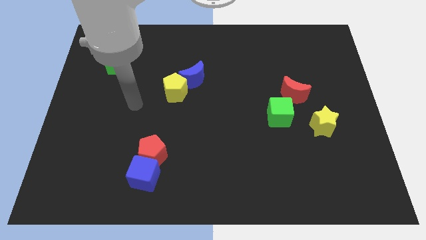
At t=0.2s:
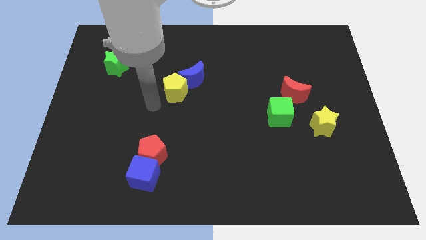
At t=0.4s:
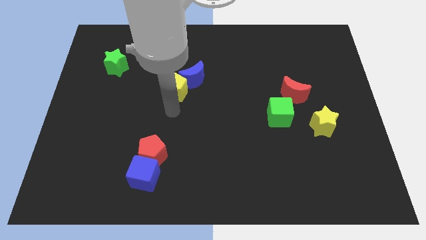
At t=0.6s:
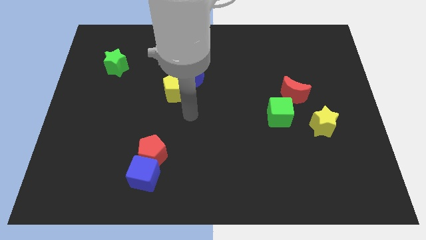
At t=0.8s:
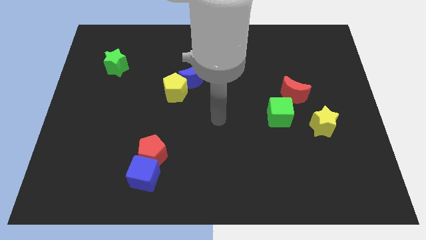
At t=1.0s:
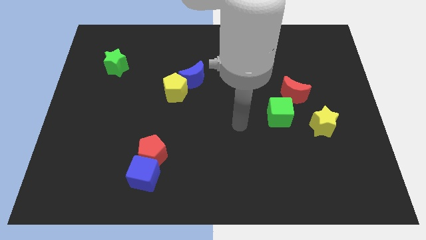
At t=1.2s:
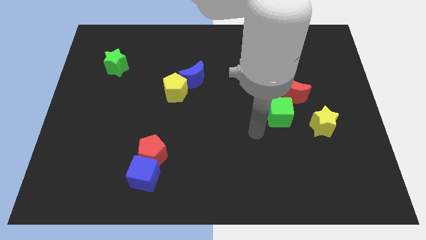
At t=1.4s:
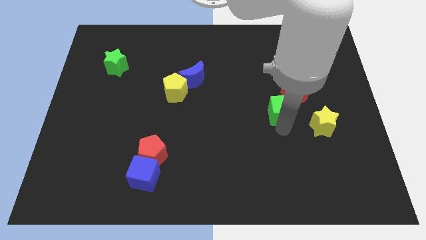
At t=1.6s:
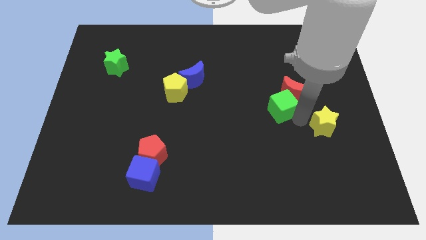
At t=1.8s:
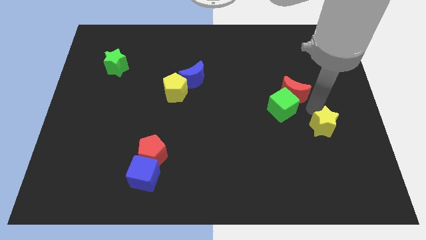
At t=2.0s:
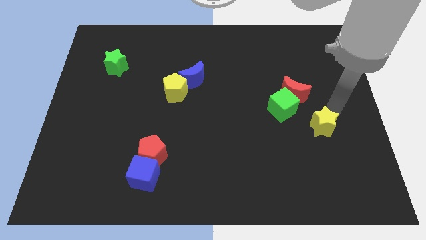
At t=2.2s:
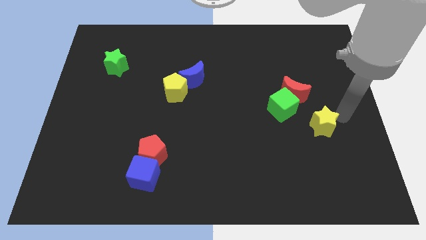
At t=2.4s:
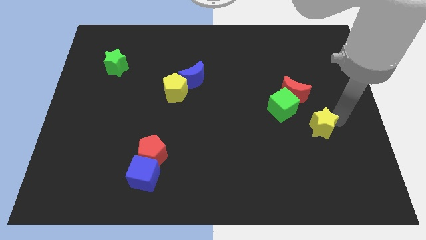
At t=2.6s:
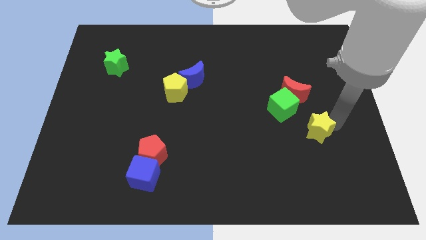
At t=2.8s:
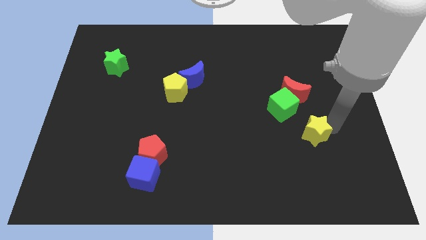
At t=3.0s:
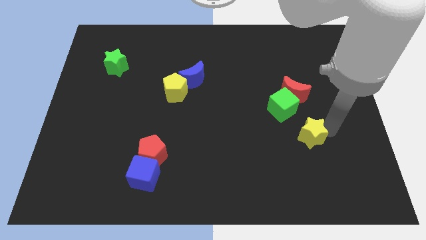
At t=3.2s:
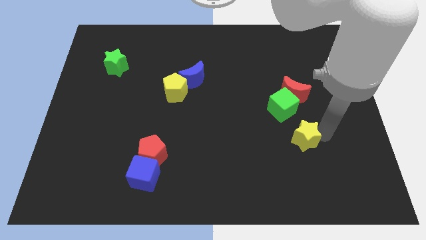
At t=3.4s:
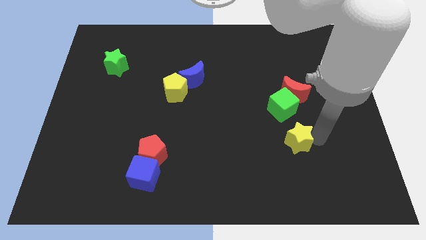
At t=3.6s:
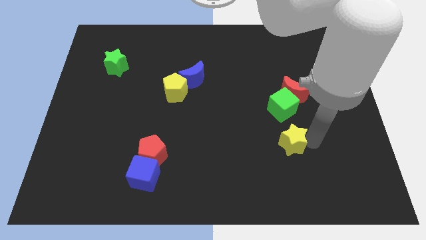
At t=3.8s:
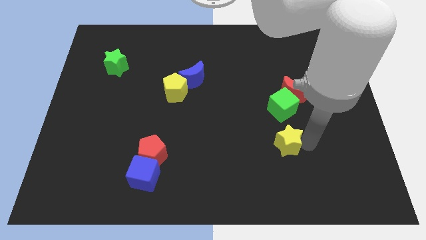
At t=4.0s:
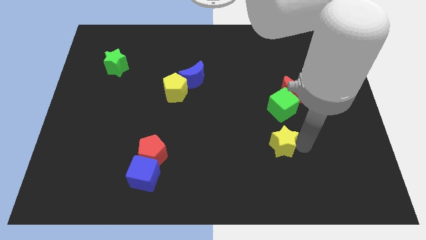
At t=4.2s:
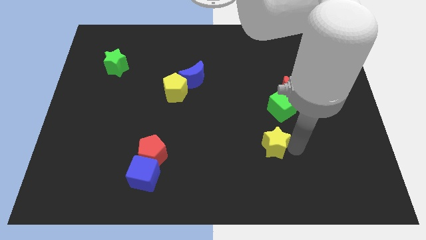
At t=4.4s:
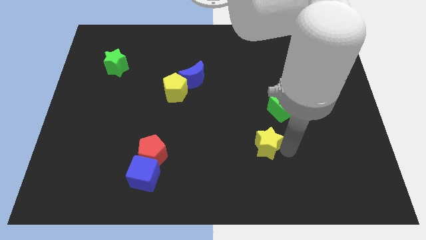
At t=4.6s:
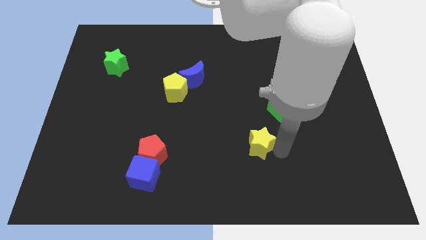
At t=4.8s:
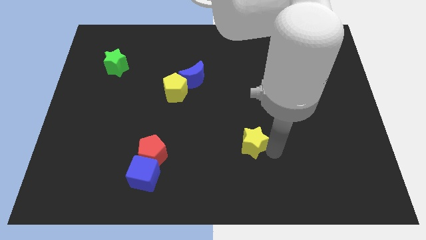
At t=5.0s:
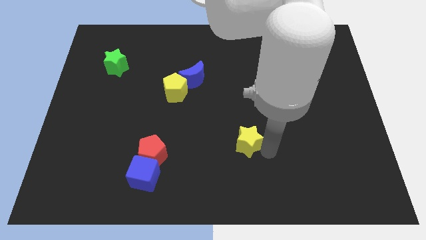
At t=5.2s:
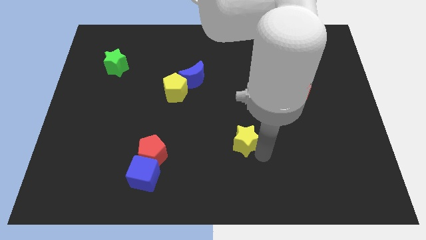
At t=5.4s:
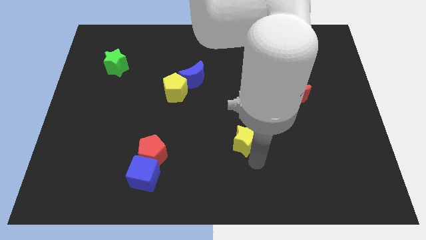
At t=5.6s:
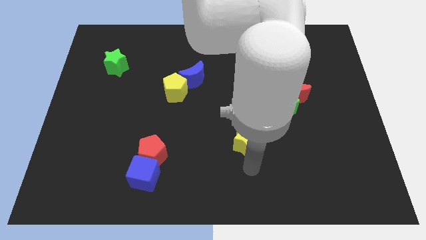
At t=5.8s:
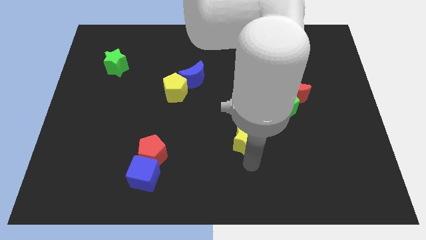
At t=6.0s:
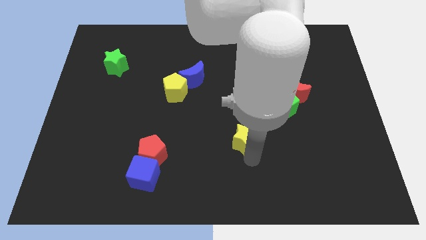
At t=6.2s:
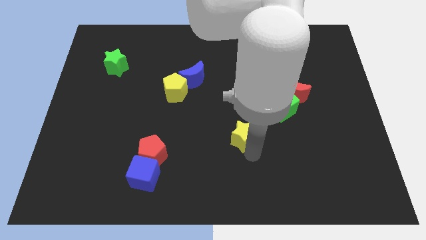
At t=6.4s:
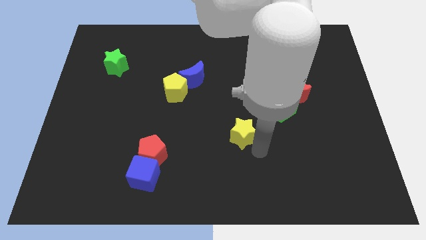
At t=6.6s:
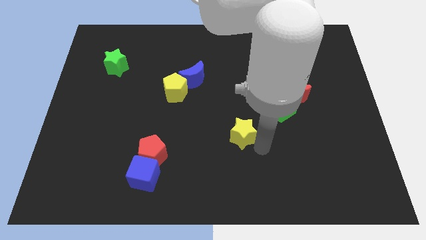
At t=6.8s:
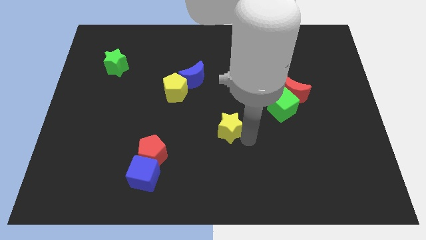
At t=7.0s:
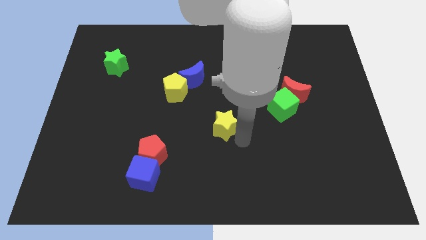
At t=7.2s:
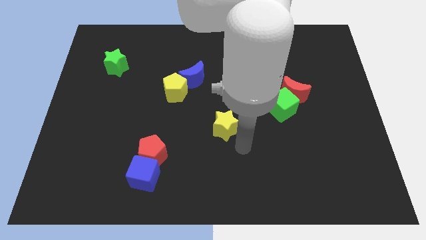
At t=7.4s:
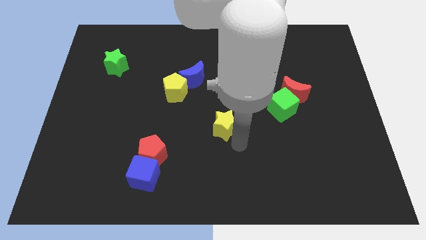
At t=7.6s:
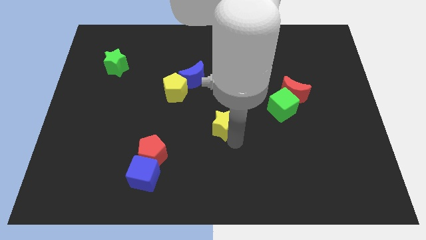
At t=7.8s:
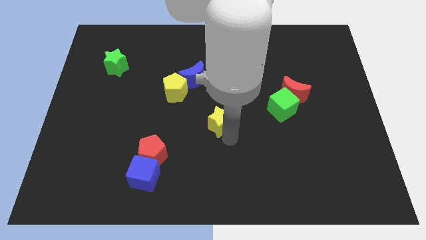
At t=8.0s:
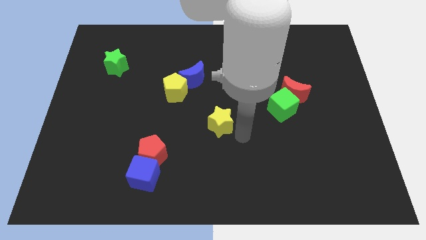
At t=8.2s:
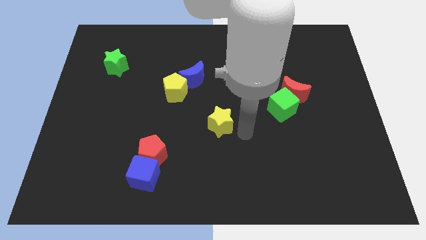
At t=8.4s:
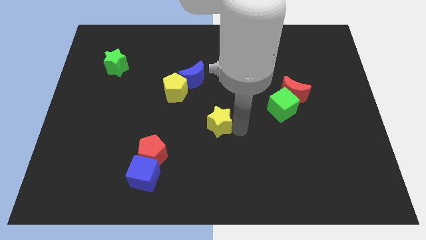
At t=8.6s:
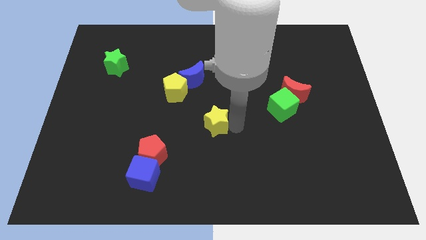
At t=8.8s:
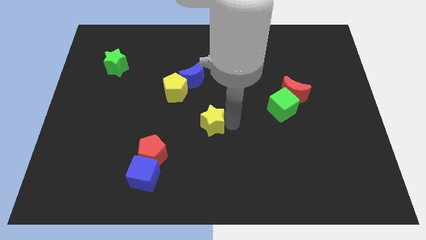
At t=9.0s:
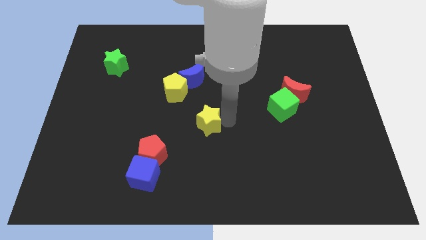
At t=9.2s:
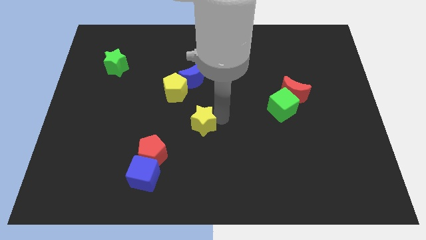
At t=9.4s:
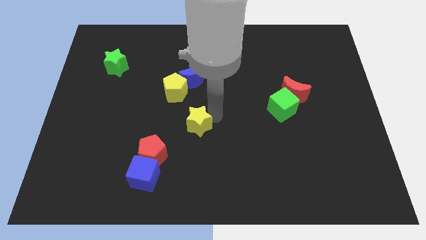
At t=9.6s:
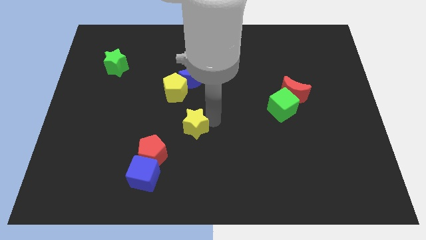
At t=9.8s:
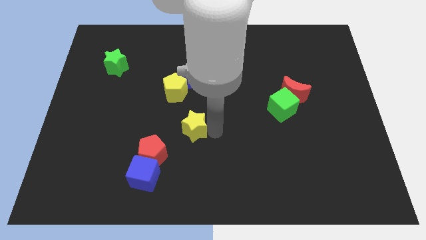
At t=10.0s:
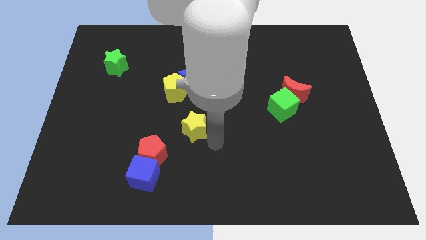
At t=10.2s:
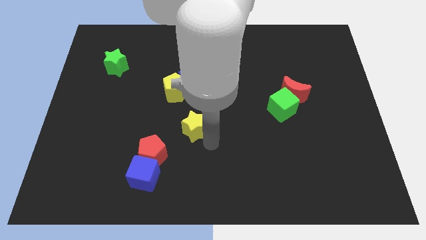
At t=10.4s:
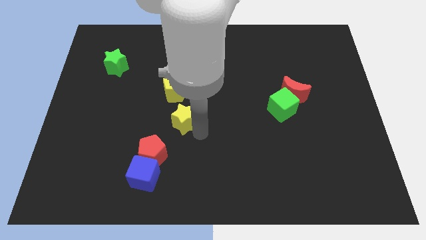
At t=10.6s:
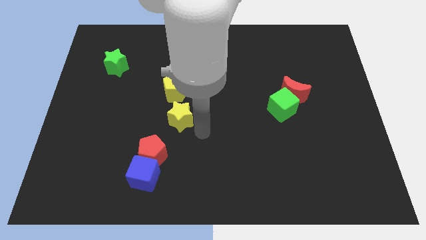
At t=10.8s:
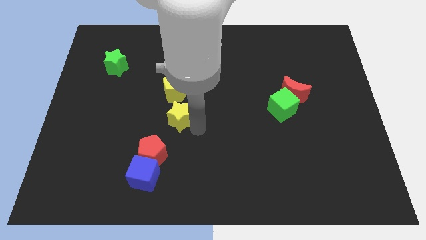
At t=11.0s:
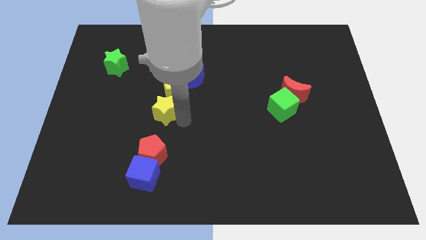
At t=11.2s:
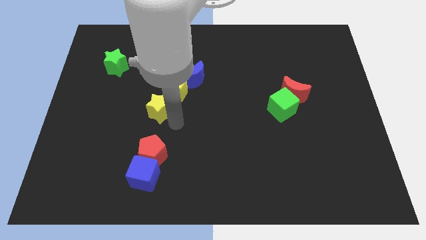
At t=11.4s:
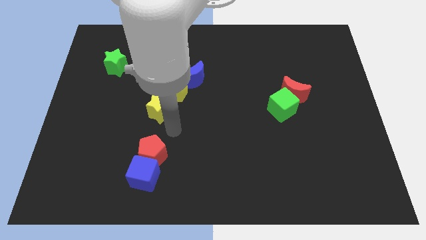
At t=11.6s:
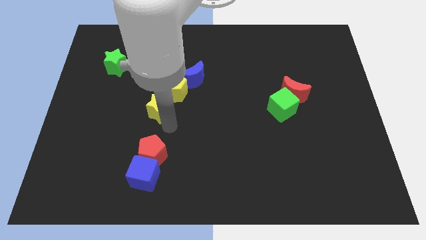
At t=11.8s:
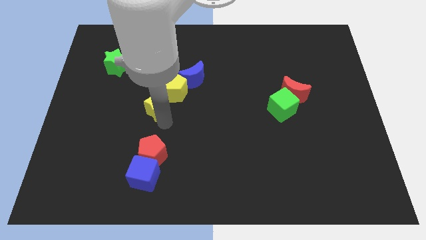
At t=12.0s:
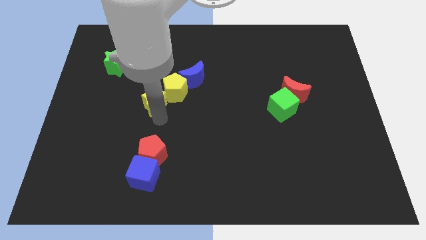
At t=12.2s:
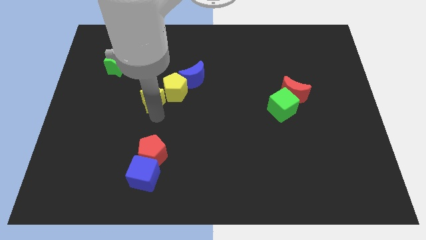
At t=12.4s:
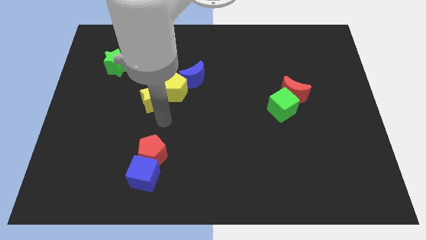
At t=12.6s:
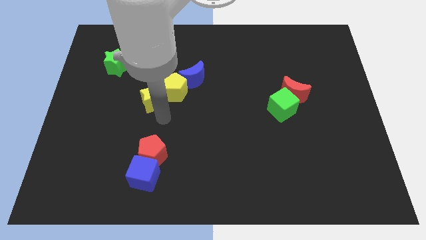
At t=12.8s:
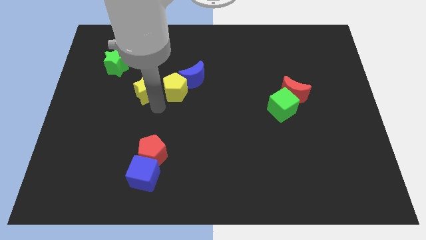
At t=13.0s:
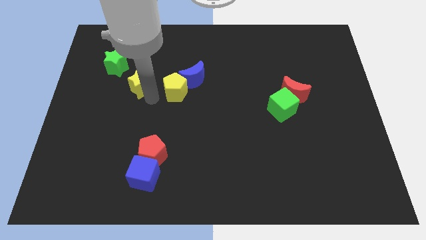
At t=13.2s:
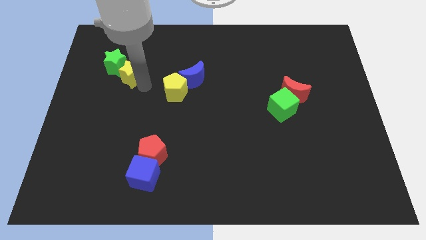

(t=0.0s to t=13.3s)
put the yellow star next to the green star
